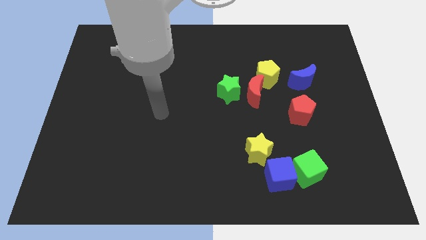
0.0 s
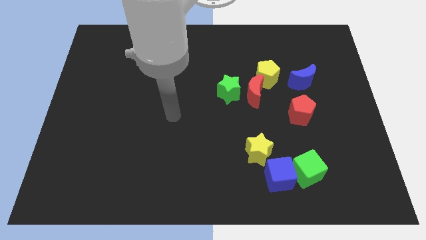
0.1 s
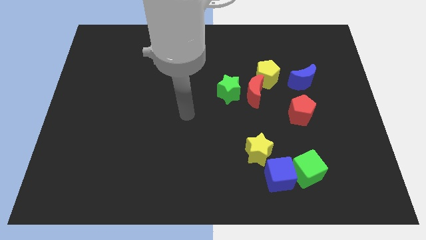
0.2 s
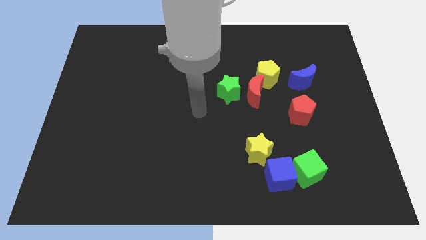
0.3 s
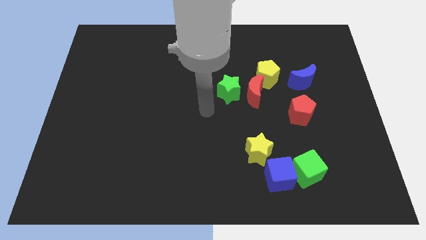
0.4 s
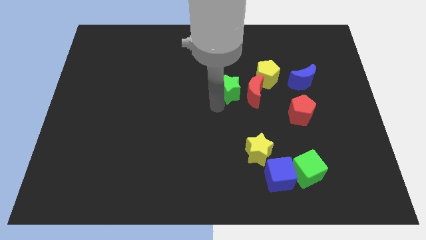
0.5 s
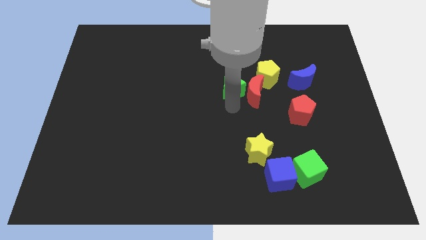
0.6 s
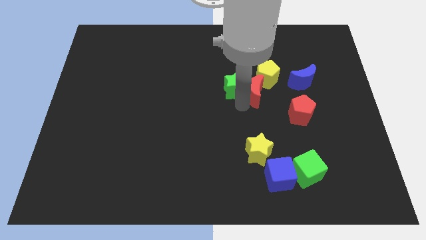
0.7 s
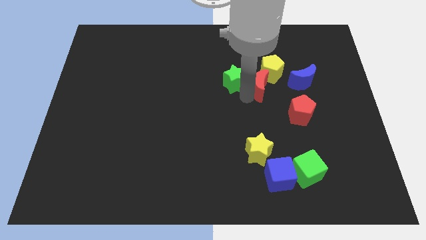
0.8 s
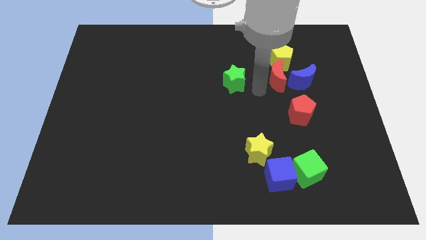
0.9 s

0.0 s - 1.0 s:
separate the green star from the red moon

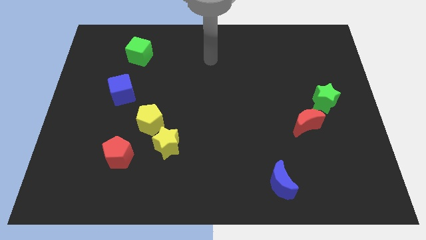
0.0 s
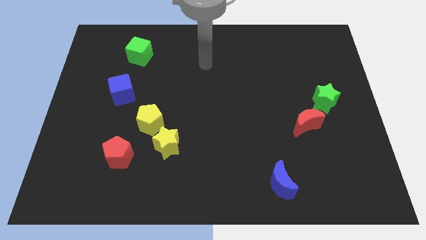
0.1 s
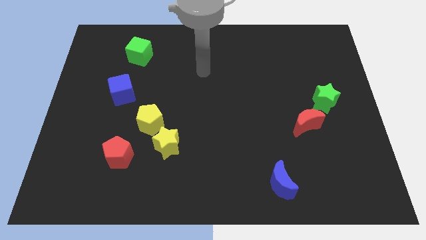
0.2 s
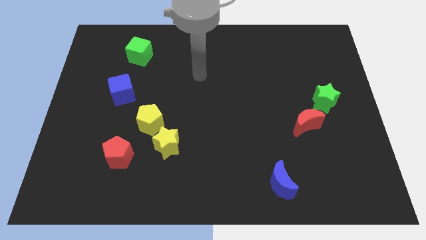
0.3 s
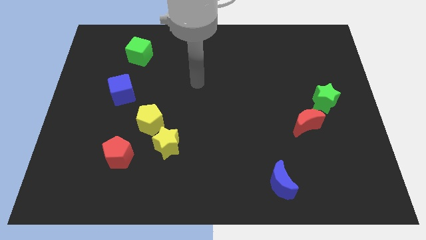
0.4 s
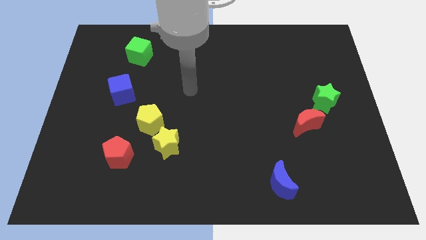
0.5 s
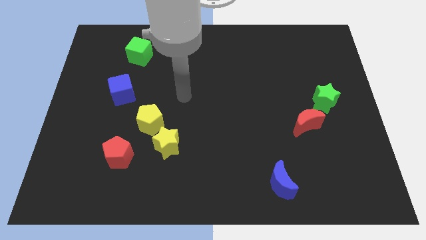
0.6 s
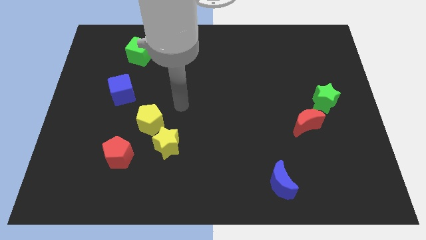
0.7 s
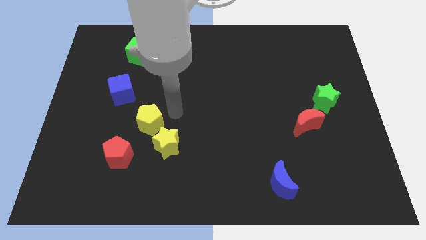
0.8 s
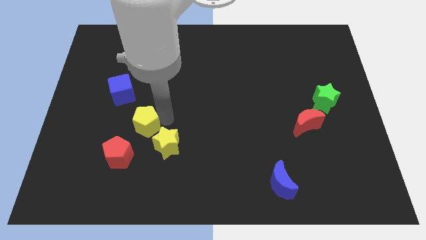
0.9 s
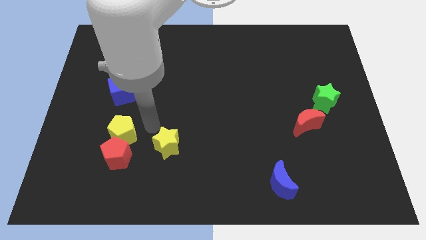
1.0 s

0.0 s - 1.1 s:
move the yellow star away from the yellow pentagon

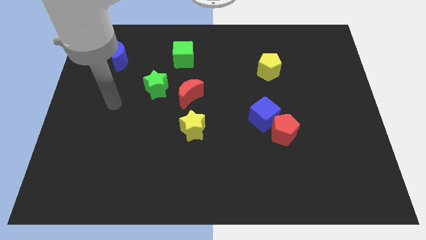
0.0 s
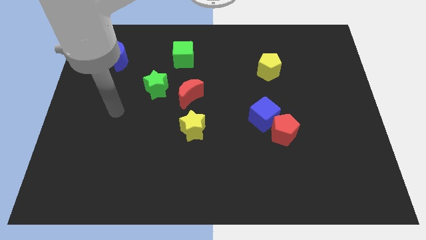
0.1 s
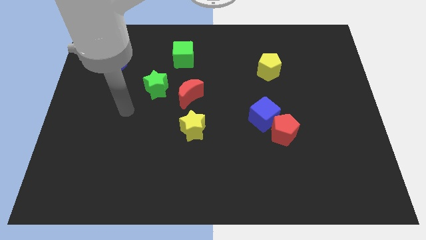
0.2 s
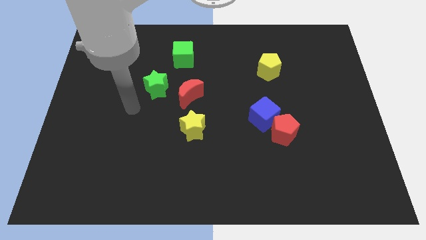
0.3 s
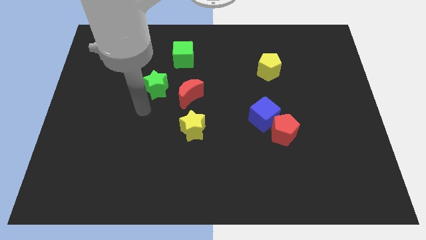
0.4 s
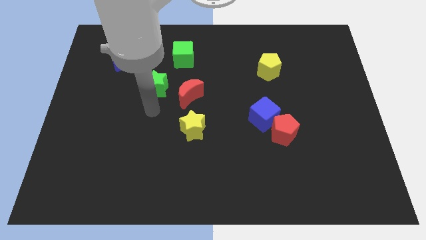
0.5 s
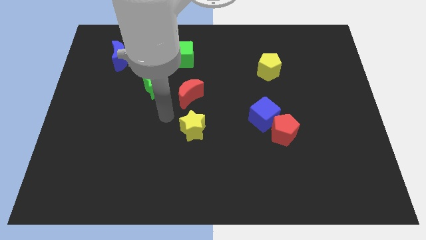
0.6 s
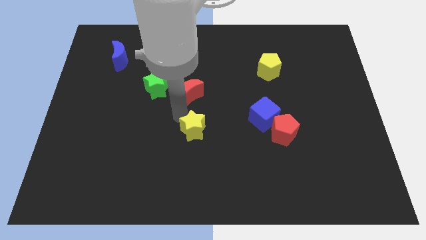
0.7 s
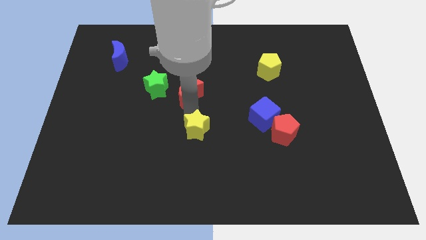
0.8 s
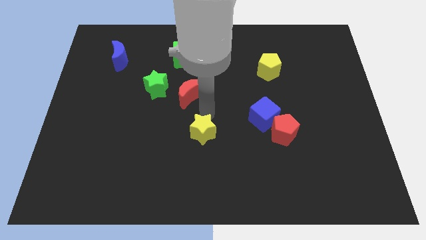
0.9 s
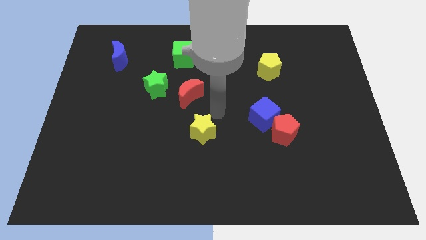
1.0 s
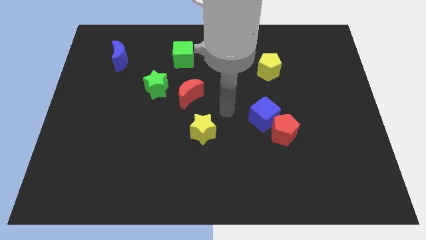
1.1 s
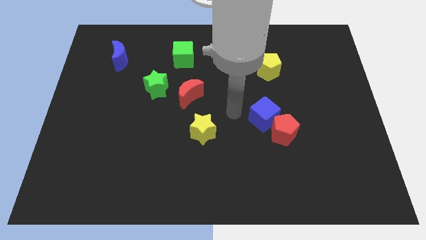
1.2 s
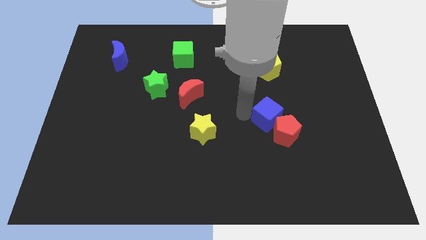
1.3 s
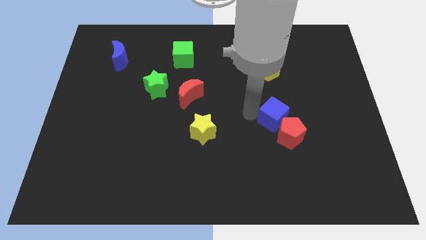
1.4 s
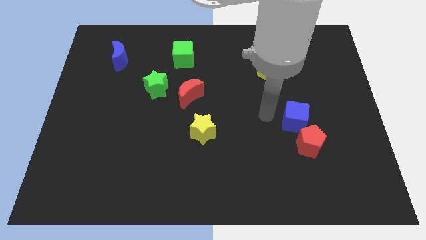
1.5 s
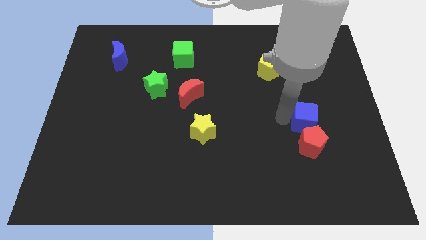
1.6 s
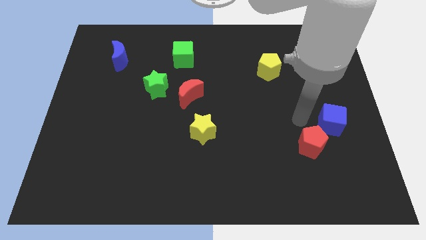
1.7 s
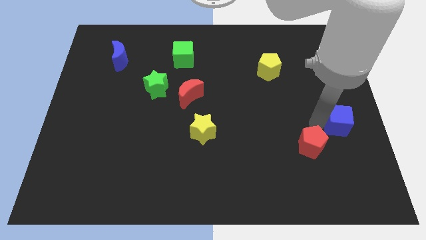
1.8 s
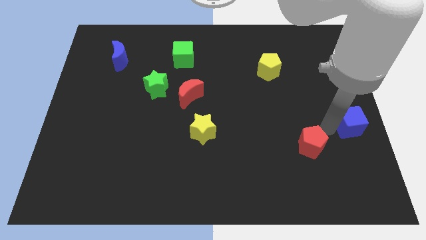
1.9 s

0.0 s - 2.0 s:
move the red pentagon away from the blue cube

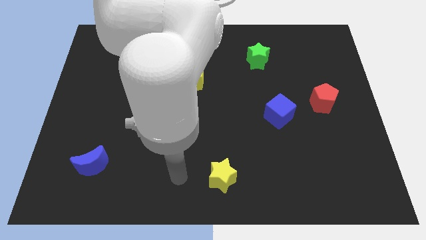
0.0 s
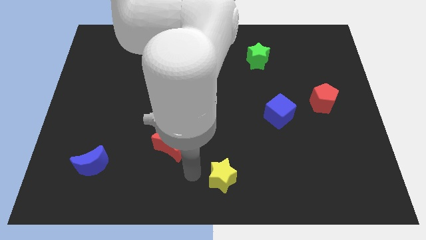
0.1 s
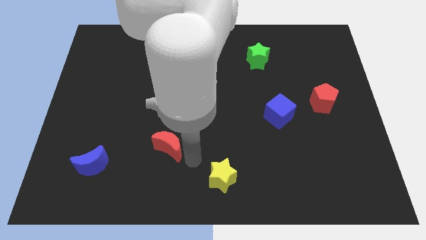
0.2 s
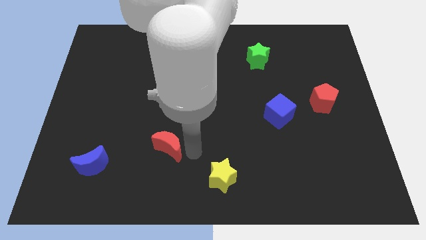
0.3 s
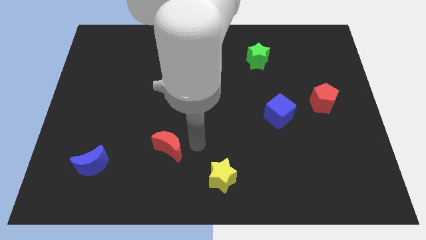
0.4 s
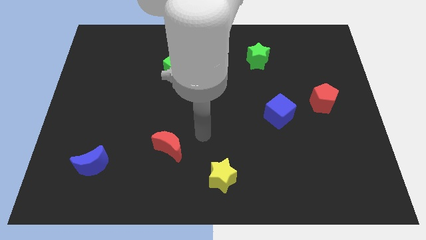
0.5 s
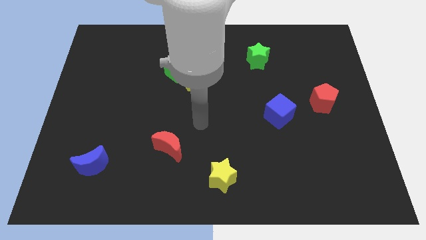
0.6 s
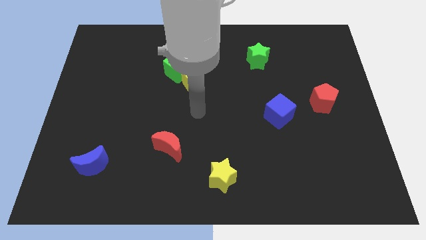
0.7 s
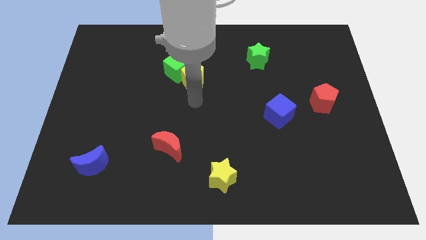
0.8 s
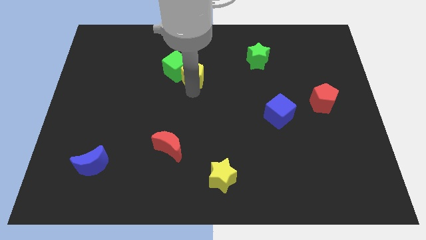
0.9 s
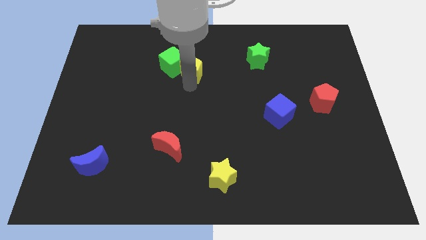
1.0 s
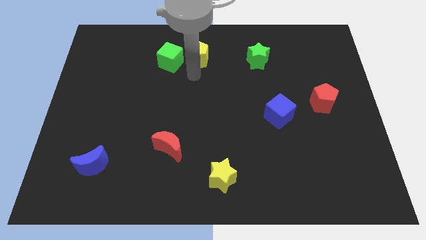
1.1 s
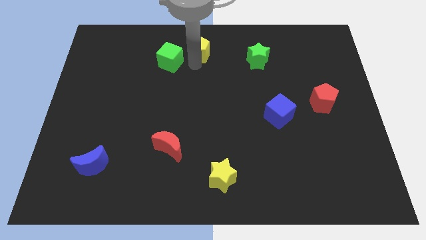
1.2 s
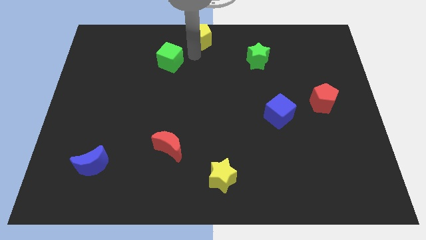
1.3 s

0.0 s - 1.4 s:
move the green cube away from the yellow pentagon

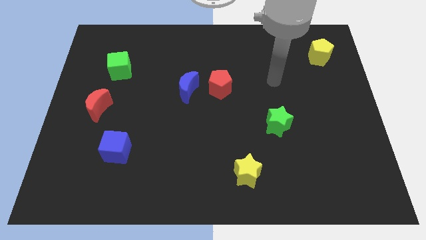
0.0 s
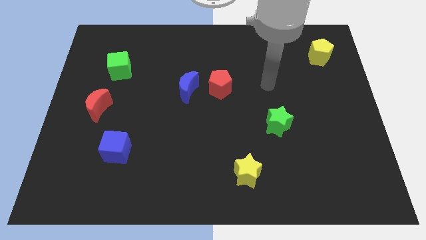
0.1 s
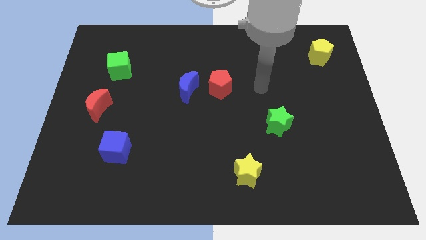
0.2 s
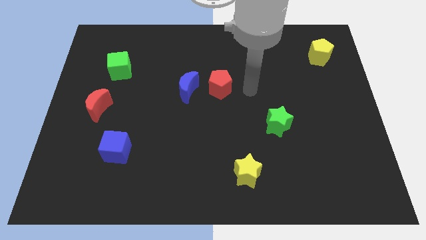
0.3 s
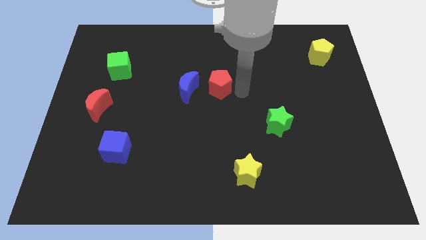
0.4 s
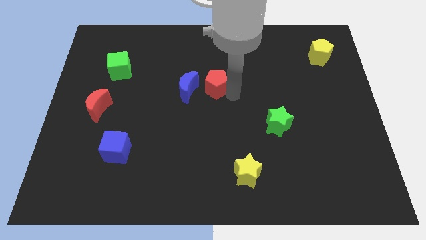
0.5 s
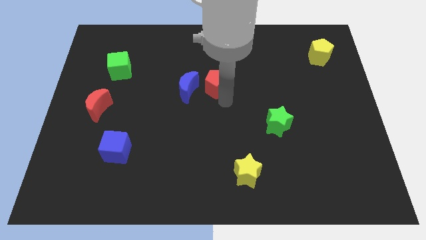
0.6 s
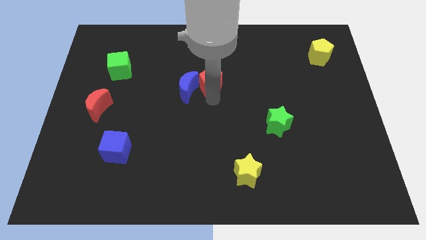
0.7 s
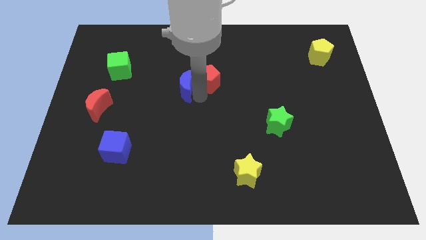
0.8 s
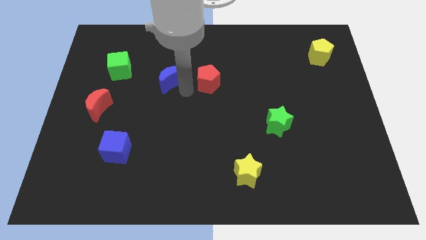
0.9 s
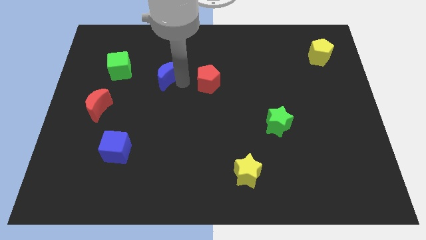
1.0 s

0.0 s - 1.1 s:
pull the red pentagon apart from the blue moon

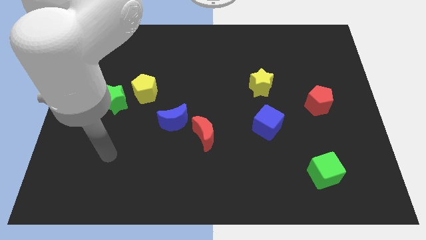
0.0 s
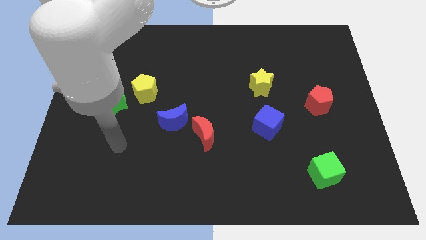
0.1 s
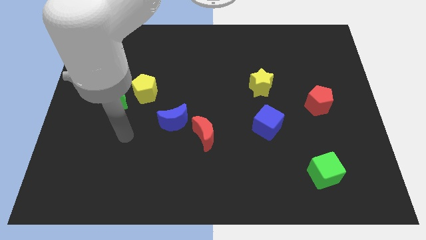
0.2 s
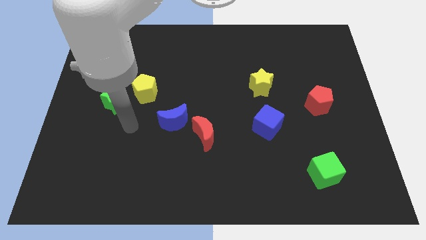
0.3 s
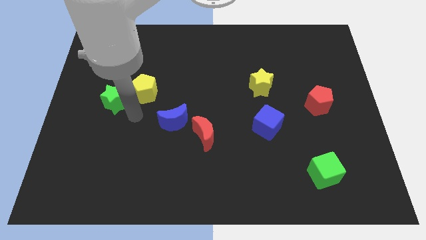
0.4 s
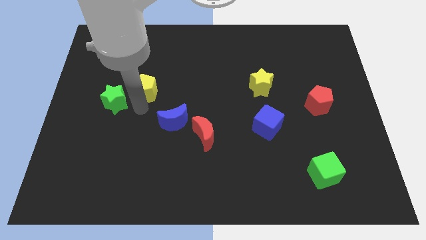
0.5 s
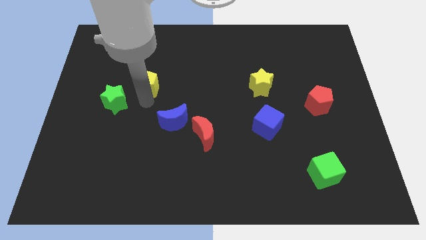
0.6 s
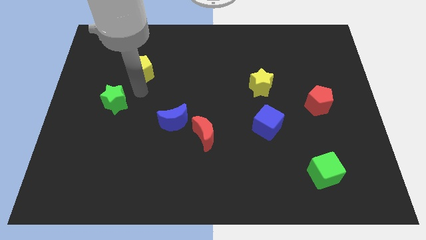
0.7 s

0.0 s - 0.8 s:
move the green star away from the yellow pentagon

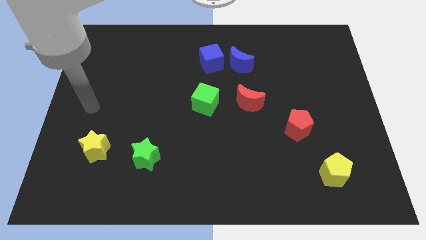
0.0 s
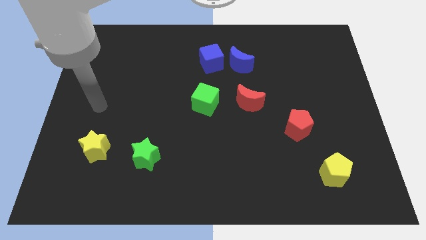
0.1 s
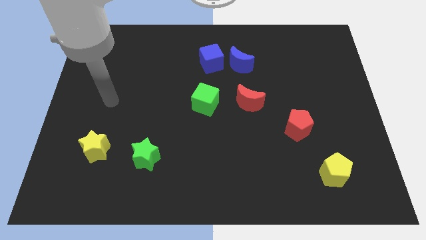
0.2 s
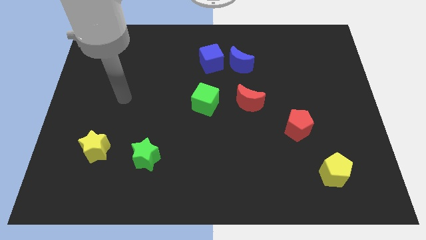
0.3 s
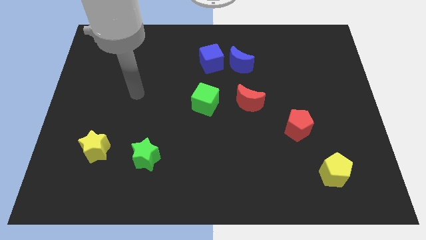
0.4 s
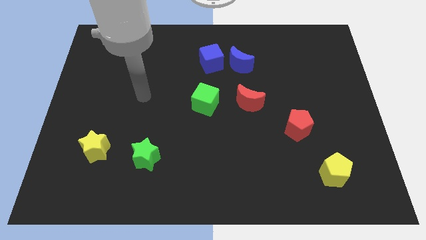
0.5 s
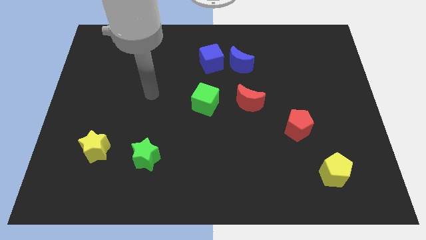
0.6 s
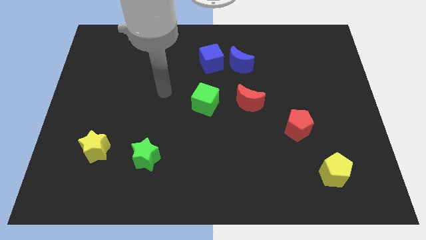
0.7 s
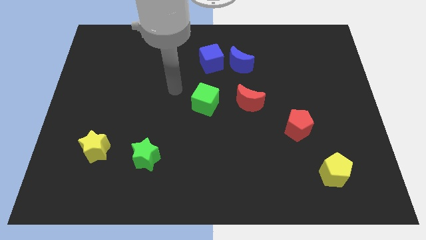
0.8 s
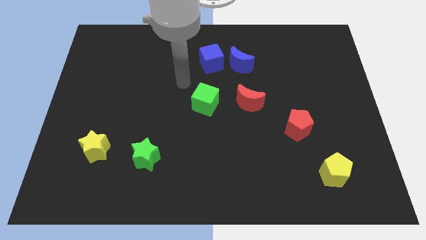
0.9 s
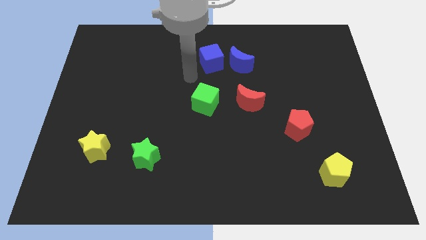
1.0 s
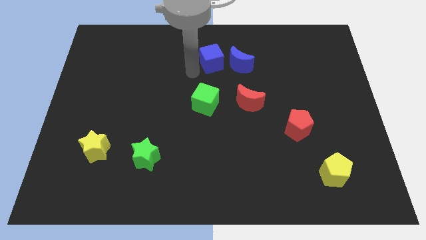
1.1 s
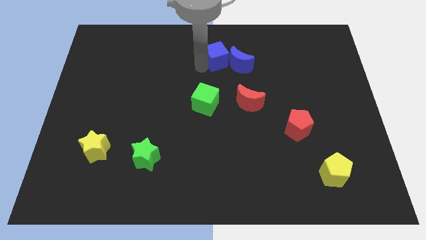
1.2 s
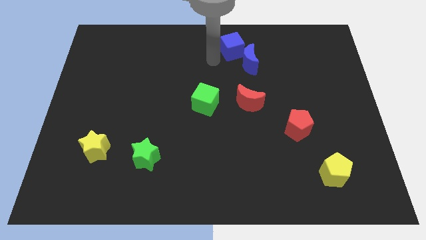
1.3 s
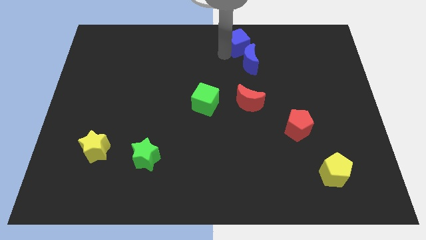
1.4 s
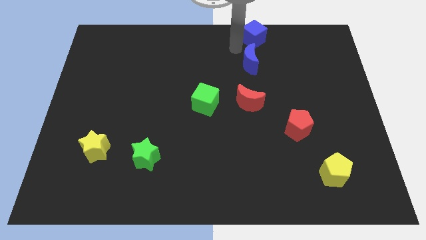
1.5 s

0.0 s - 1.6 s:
separate the blue moon from the blue cube
